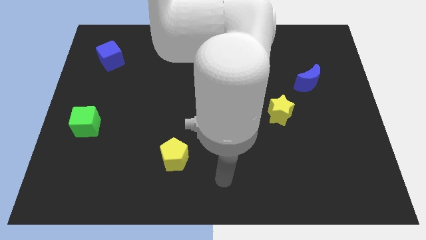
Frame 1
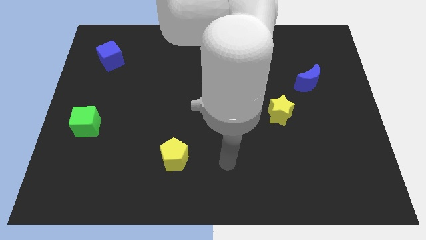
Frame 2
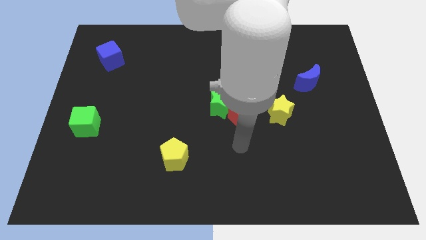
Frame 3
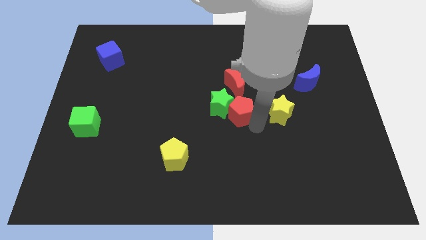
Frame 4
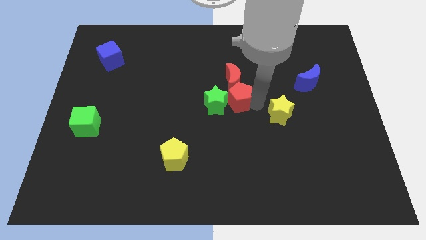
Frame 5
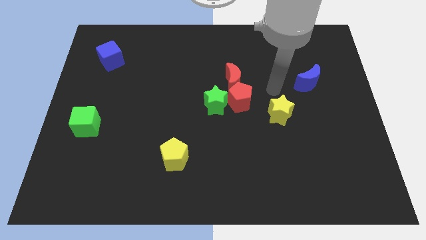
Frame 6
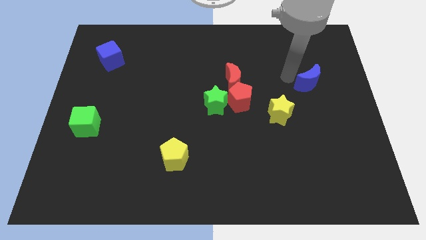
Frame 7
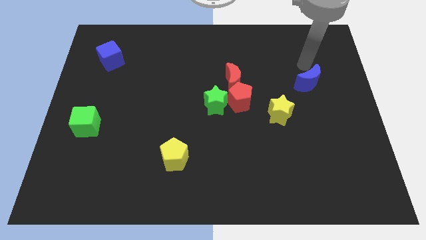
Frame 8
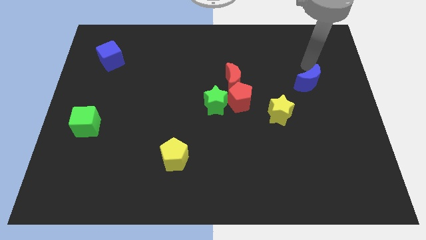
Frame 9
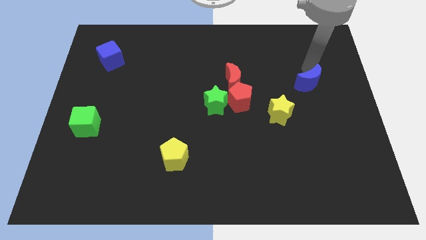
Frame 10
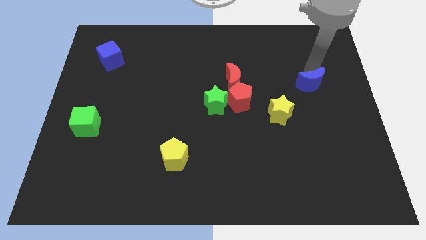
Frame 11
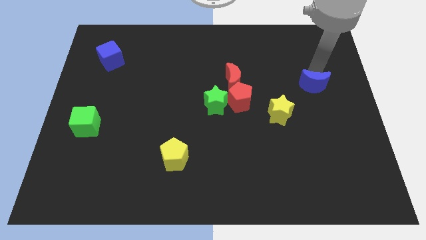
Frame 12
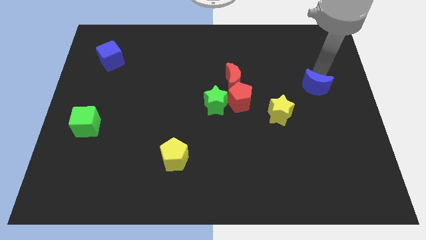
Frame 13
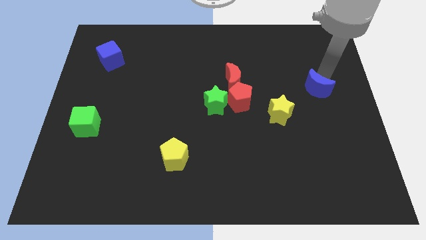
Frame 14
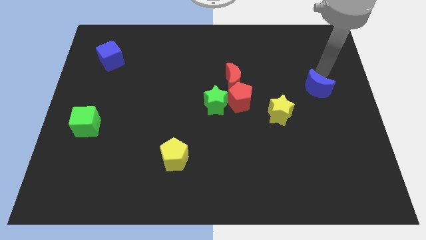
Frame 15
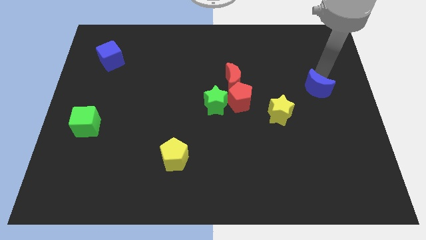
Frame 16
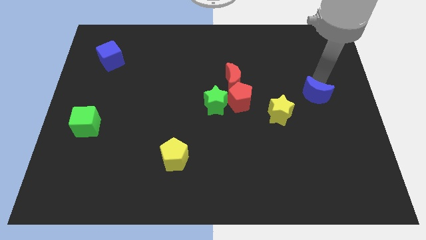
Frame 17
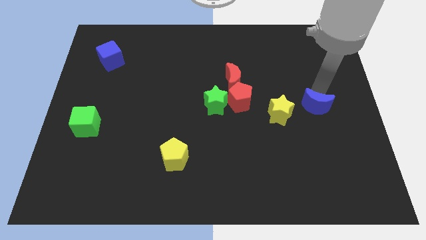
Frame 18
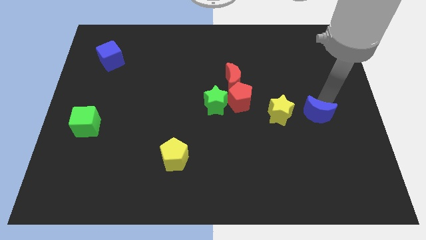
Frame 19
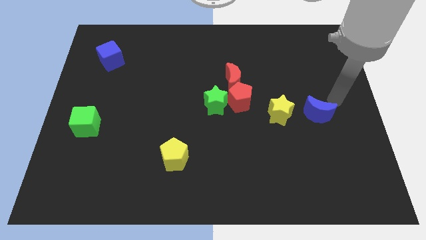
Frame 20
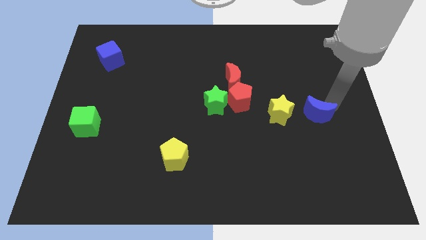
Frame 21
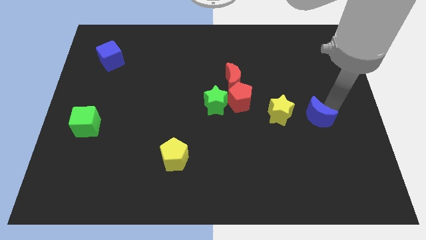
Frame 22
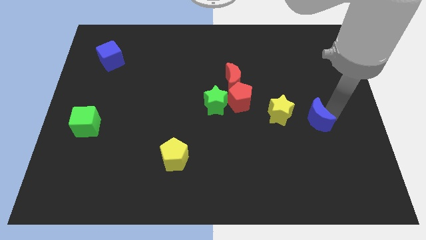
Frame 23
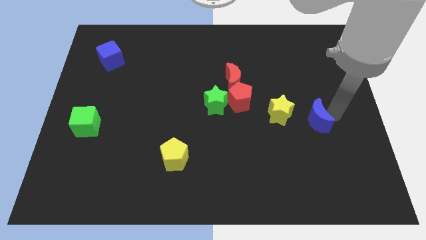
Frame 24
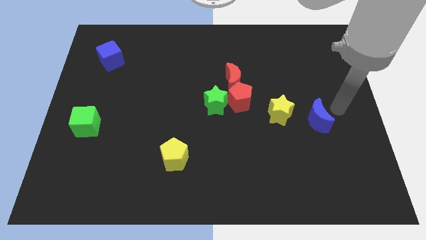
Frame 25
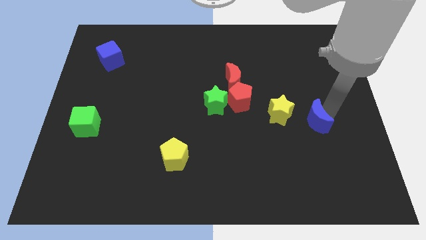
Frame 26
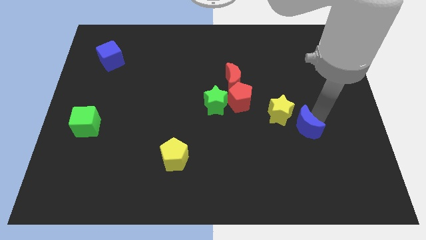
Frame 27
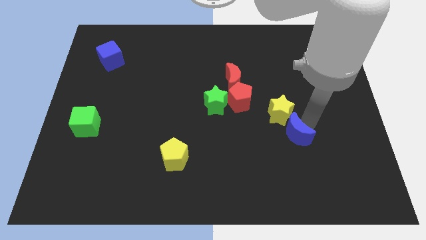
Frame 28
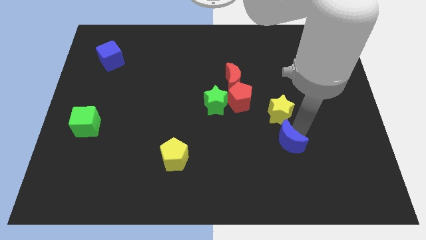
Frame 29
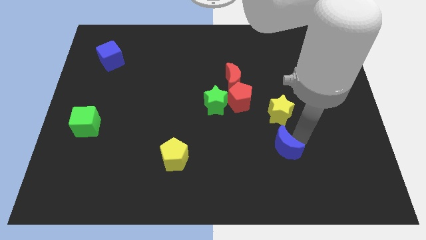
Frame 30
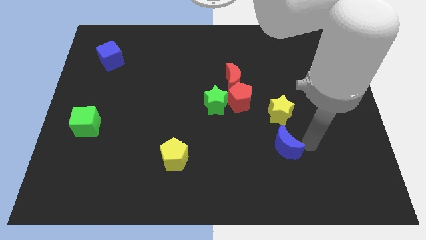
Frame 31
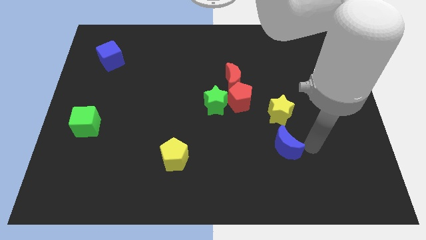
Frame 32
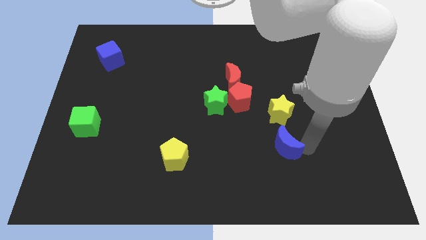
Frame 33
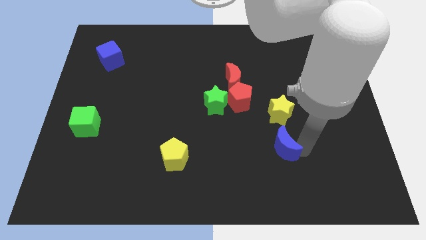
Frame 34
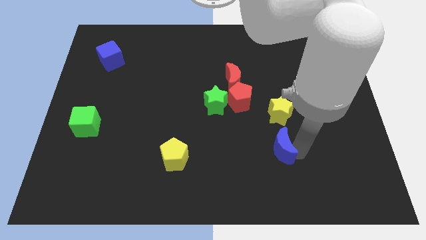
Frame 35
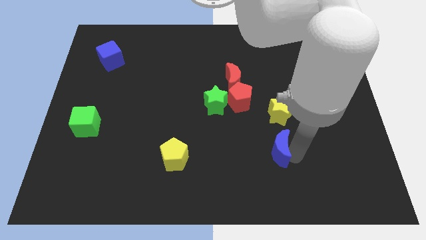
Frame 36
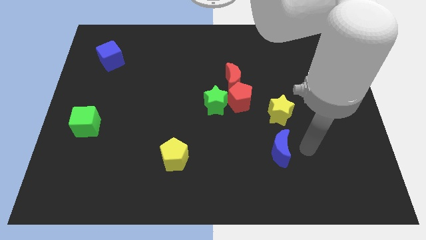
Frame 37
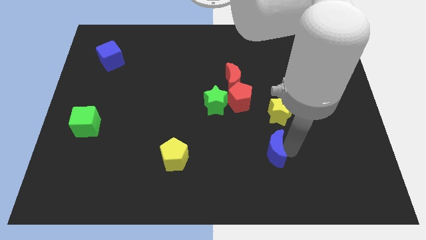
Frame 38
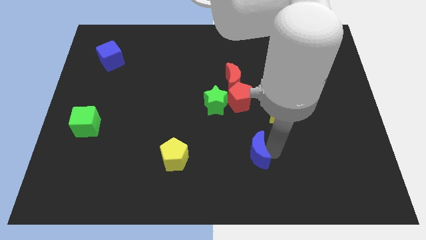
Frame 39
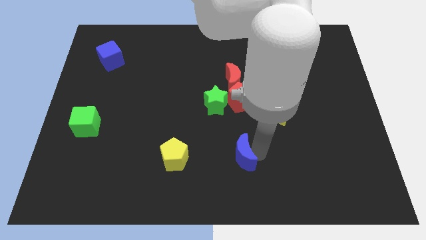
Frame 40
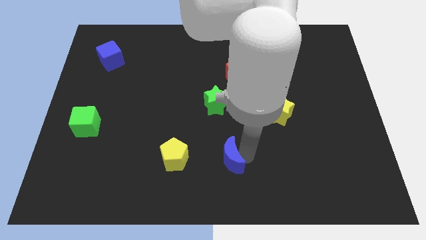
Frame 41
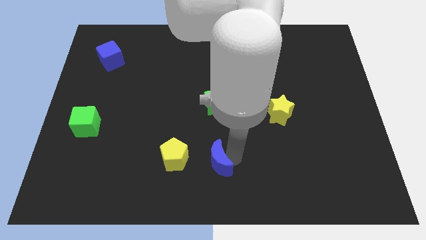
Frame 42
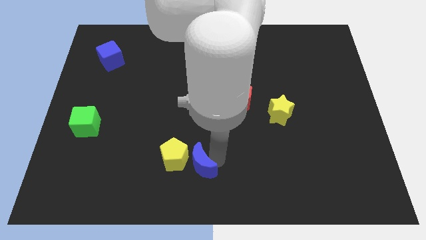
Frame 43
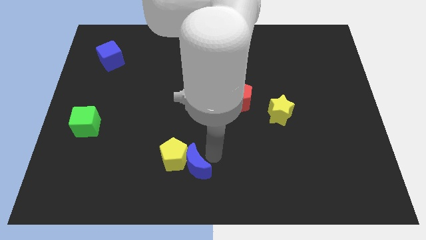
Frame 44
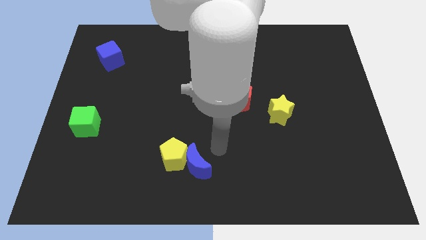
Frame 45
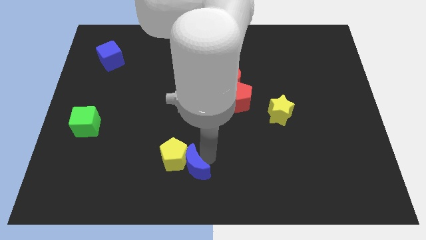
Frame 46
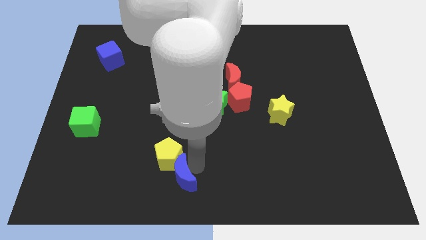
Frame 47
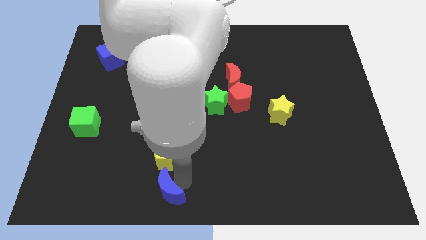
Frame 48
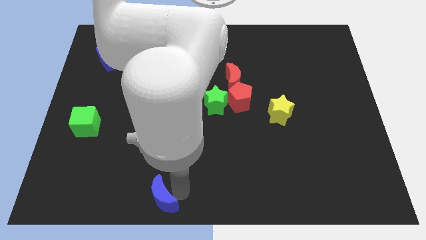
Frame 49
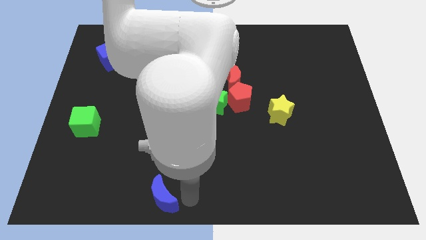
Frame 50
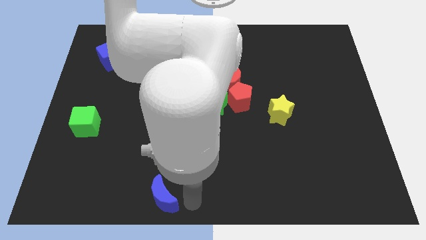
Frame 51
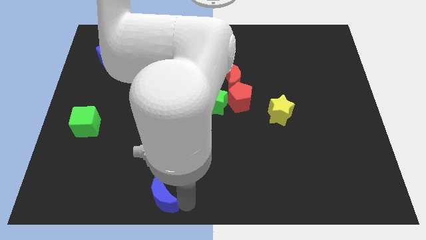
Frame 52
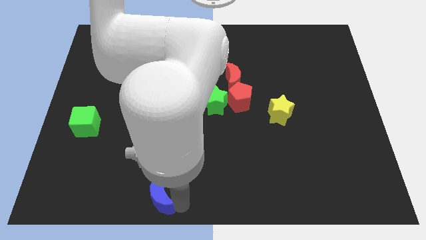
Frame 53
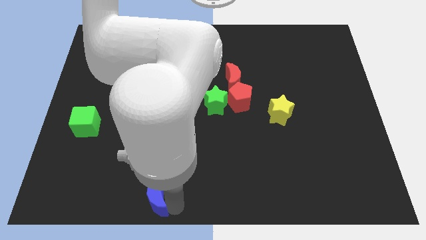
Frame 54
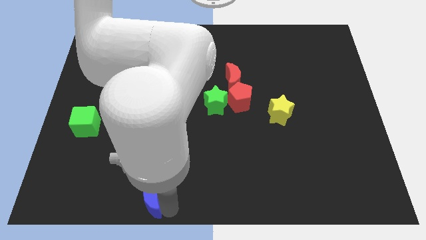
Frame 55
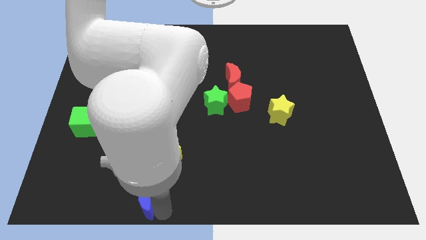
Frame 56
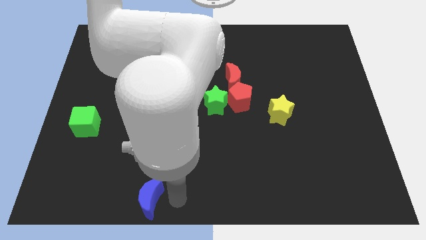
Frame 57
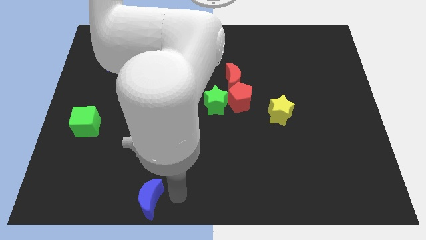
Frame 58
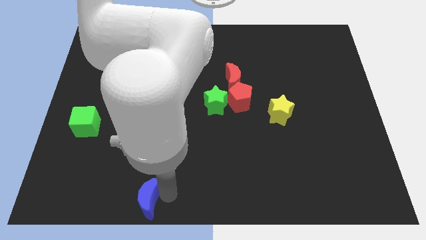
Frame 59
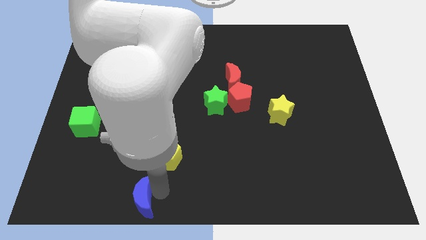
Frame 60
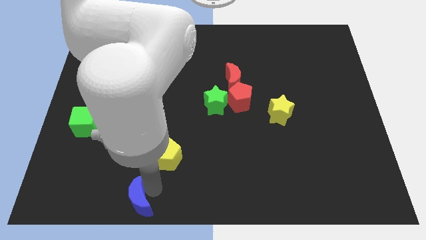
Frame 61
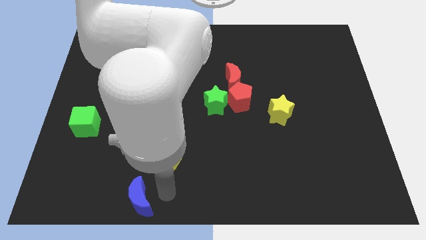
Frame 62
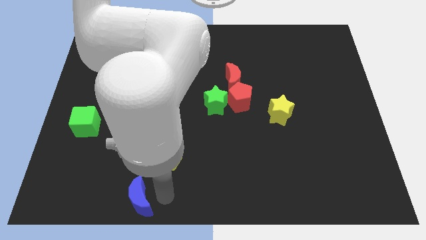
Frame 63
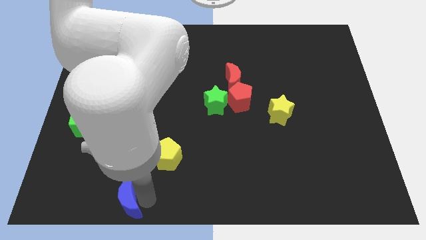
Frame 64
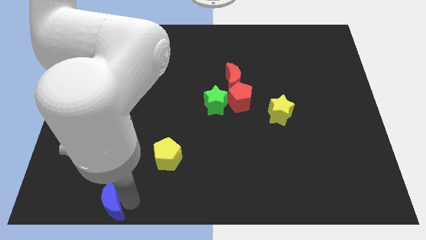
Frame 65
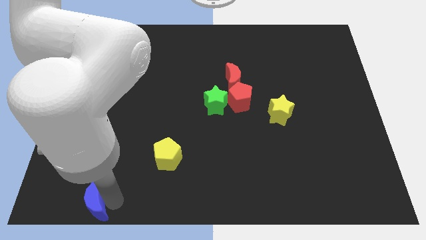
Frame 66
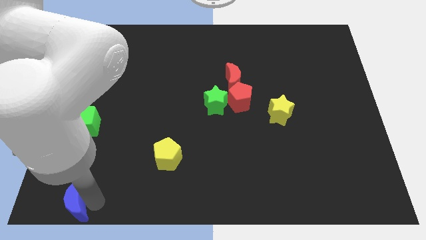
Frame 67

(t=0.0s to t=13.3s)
put the blue moon to the bottom left
